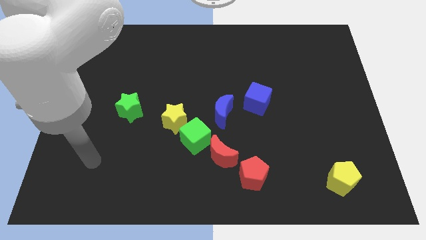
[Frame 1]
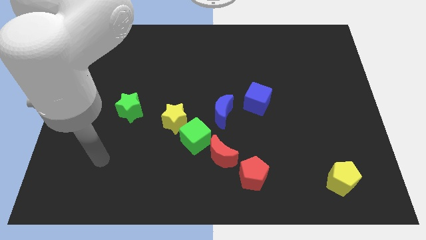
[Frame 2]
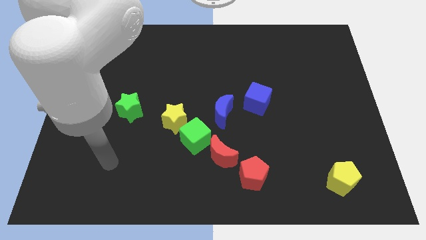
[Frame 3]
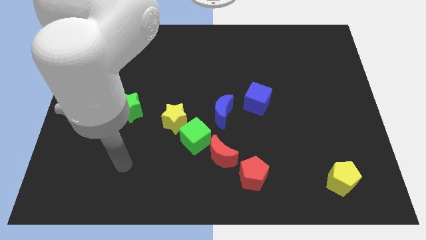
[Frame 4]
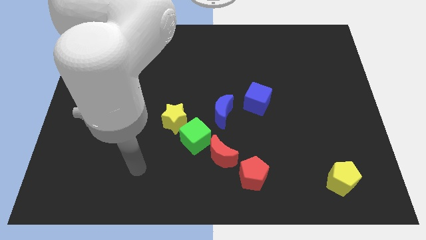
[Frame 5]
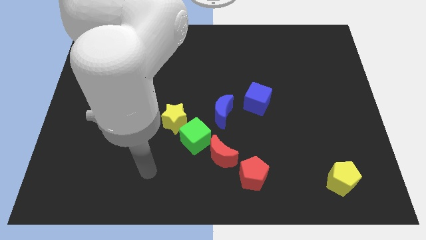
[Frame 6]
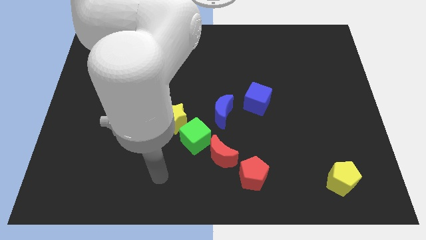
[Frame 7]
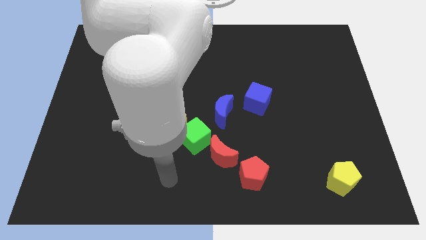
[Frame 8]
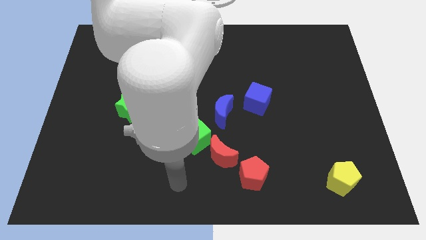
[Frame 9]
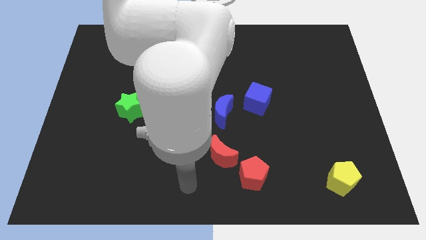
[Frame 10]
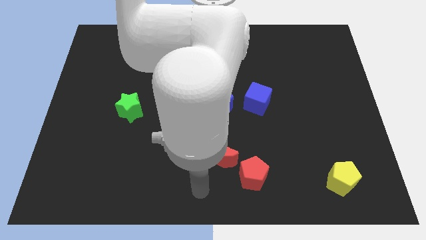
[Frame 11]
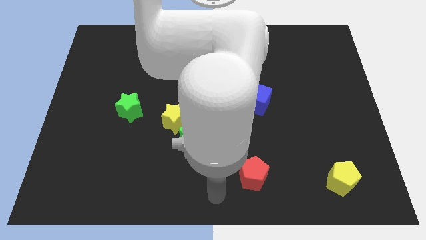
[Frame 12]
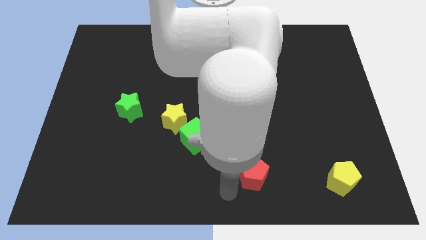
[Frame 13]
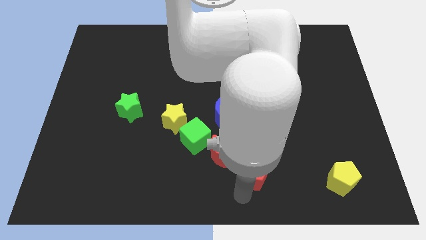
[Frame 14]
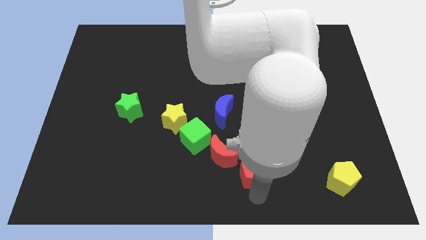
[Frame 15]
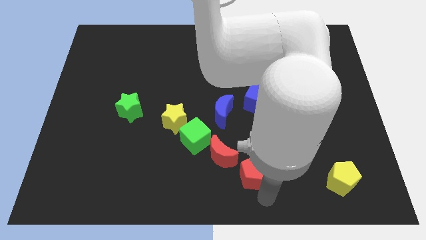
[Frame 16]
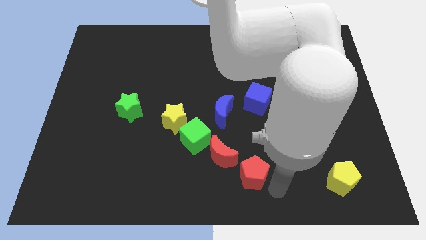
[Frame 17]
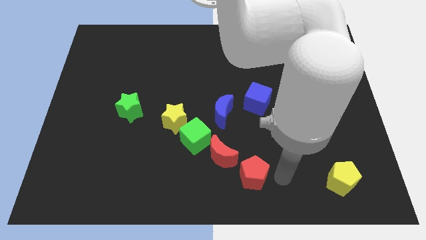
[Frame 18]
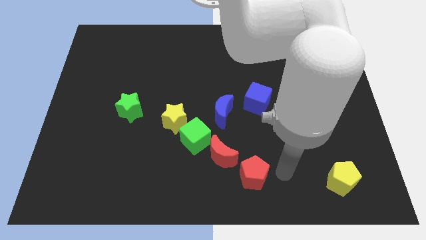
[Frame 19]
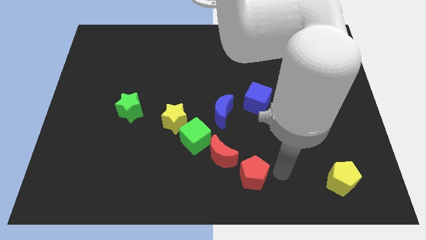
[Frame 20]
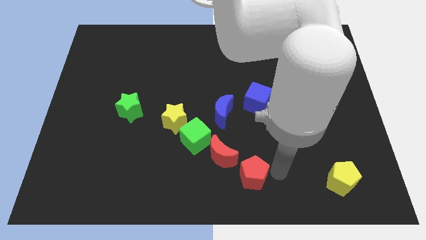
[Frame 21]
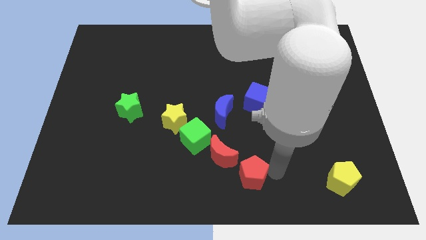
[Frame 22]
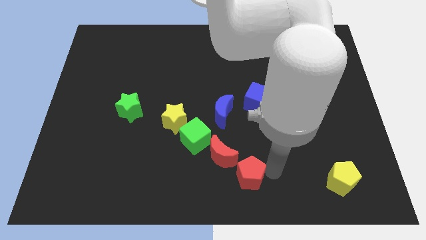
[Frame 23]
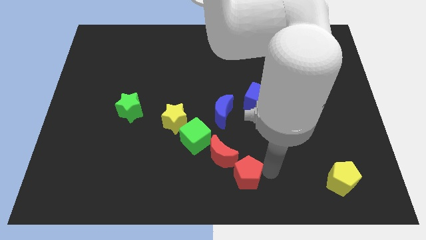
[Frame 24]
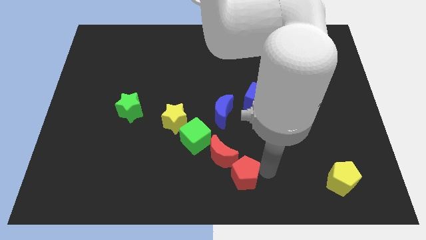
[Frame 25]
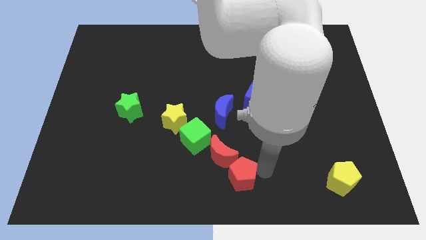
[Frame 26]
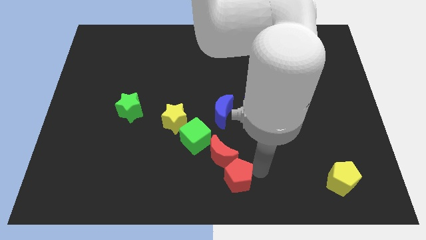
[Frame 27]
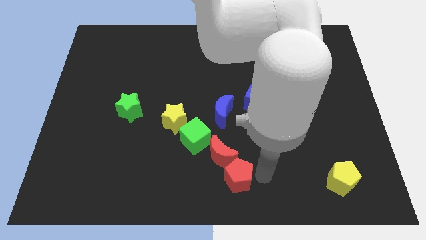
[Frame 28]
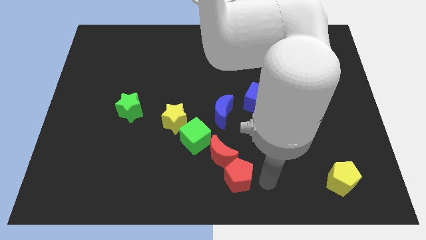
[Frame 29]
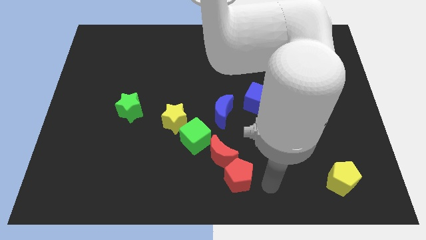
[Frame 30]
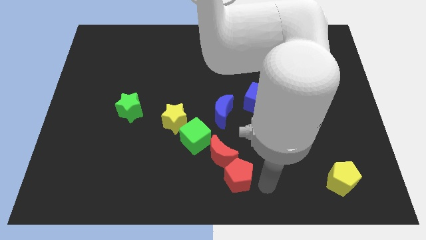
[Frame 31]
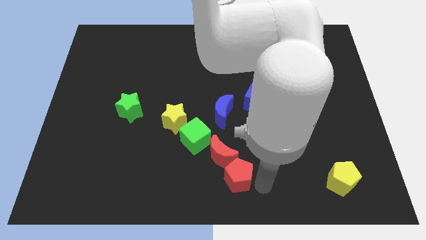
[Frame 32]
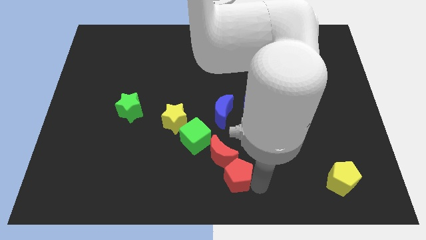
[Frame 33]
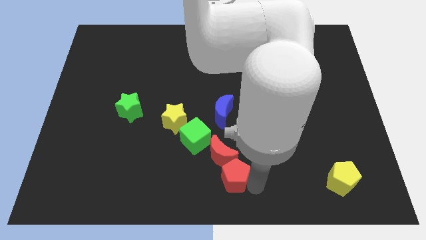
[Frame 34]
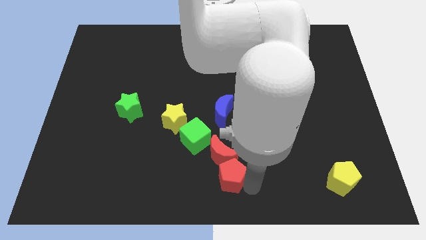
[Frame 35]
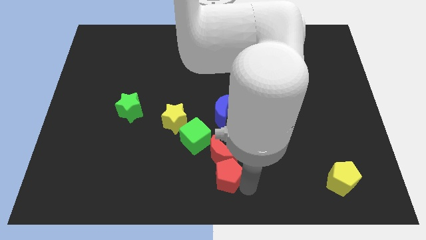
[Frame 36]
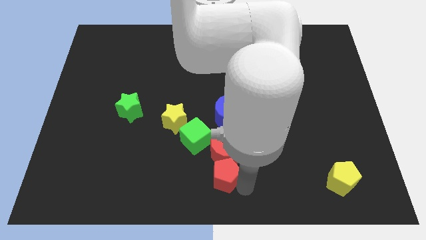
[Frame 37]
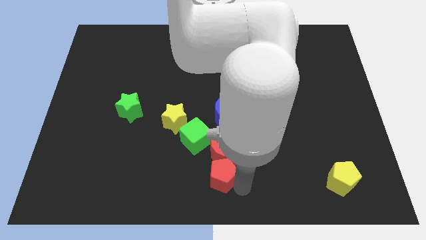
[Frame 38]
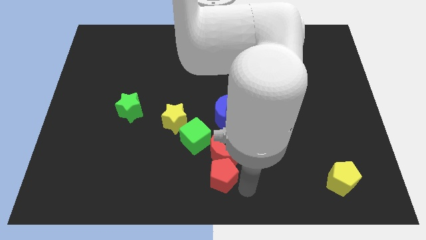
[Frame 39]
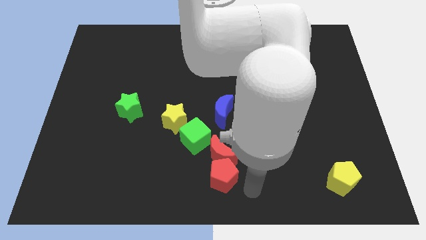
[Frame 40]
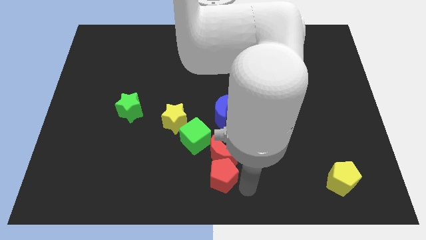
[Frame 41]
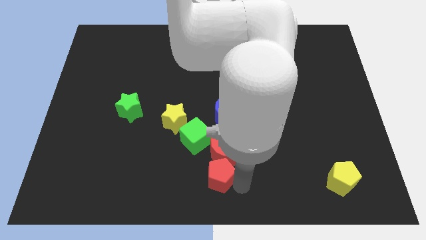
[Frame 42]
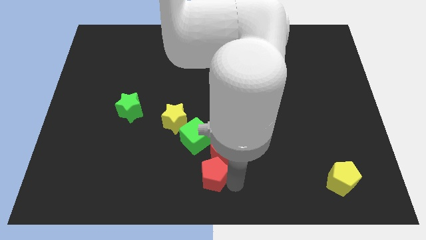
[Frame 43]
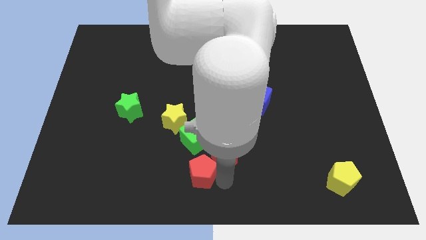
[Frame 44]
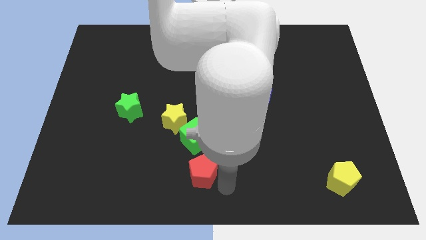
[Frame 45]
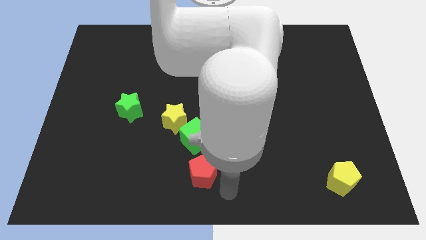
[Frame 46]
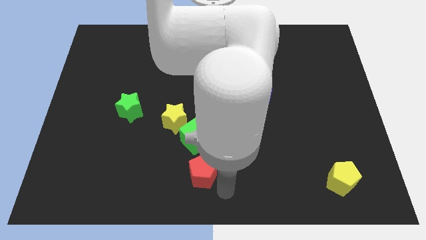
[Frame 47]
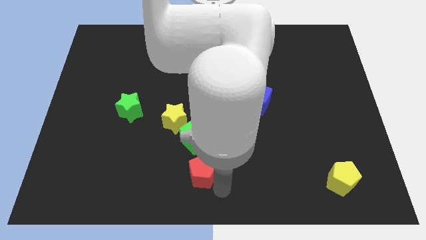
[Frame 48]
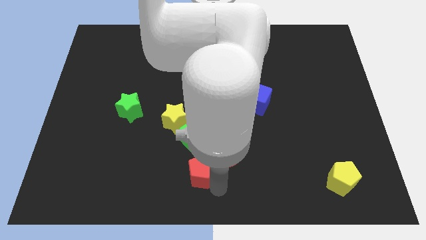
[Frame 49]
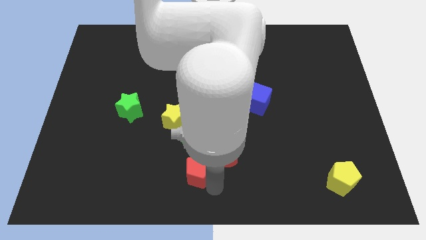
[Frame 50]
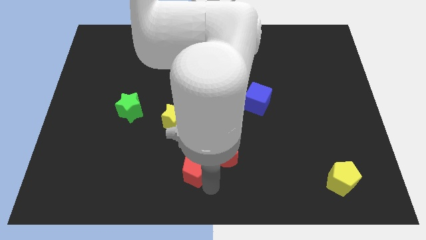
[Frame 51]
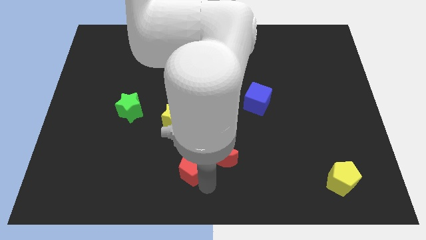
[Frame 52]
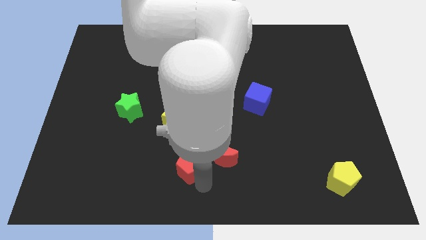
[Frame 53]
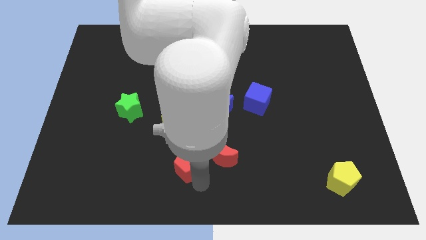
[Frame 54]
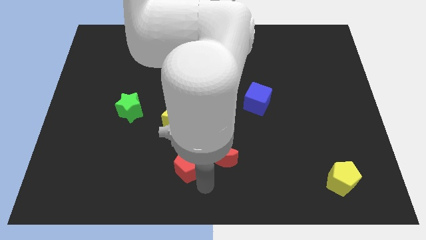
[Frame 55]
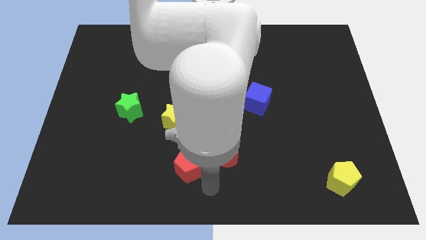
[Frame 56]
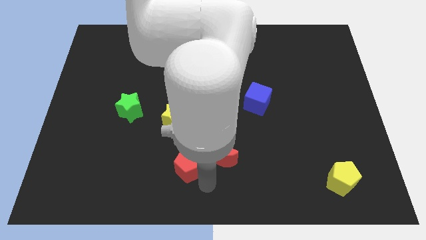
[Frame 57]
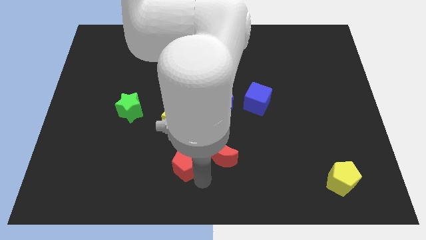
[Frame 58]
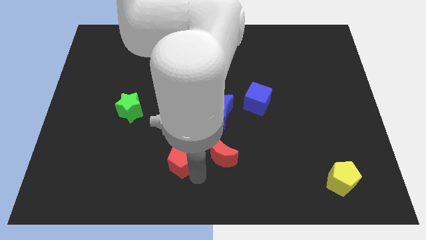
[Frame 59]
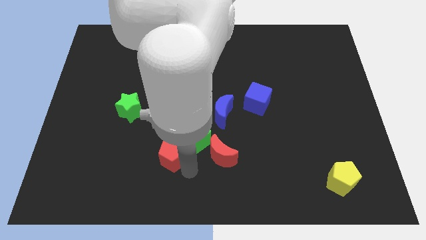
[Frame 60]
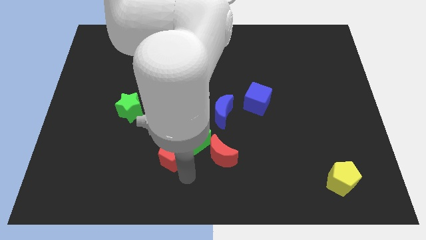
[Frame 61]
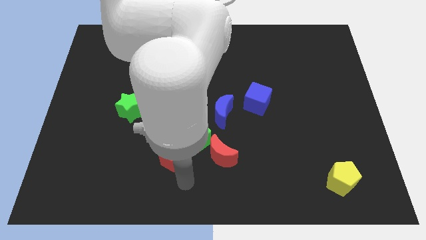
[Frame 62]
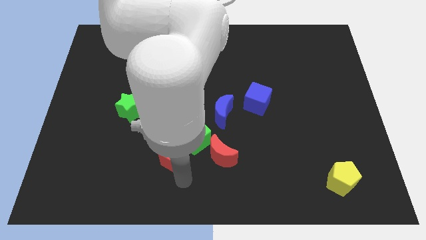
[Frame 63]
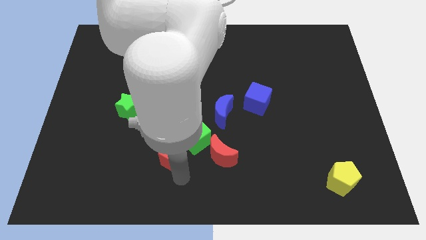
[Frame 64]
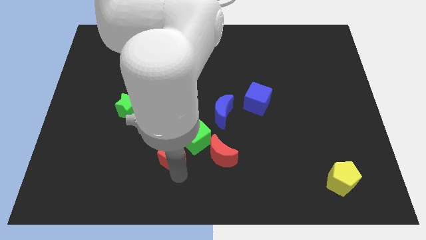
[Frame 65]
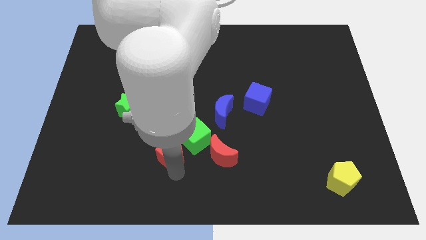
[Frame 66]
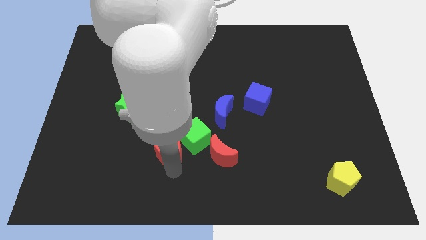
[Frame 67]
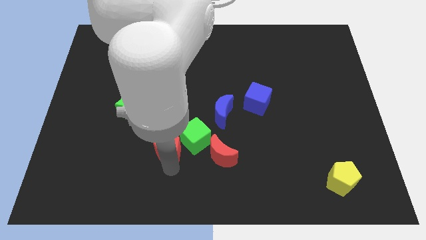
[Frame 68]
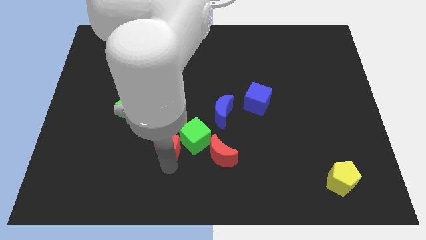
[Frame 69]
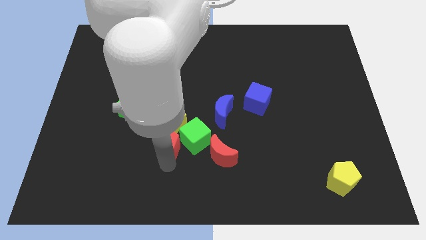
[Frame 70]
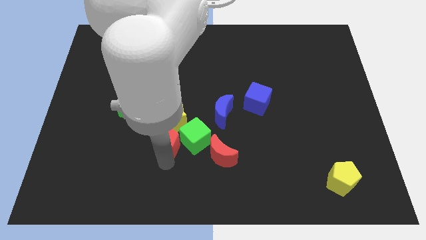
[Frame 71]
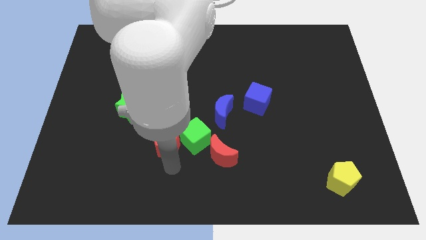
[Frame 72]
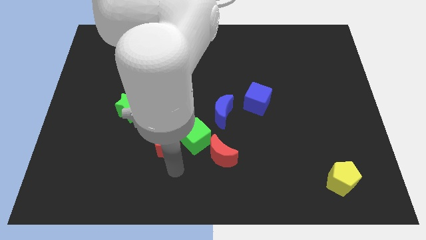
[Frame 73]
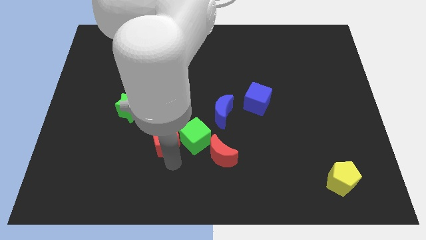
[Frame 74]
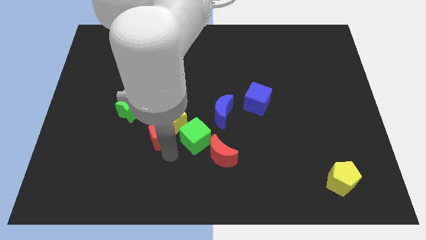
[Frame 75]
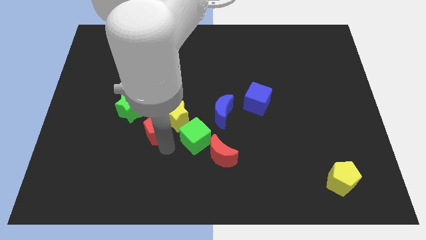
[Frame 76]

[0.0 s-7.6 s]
move the red pentagon up and to the left diagonally

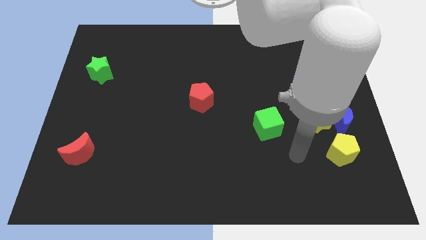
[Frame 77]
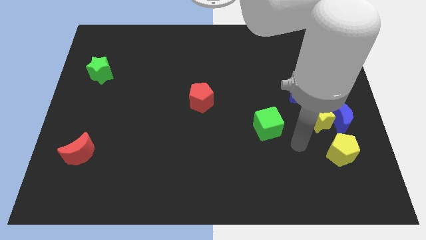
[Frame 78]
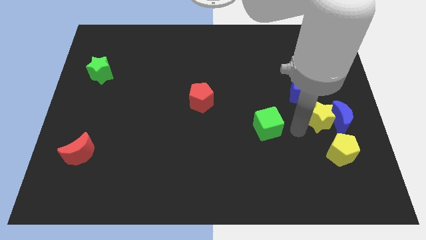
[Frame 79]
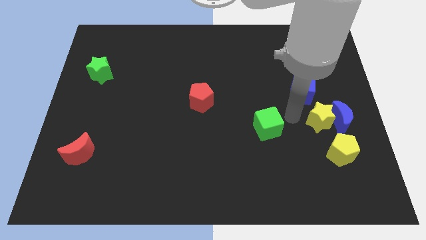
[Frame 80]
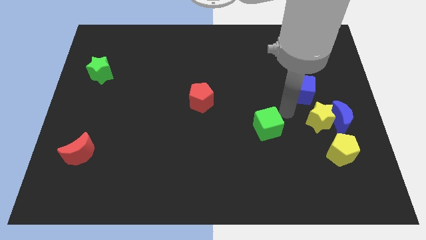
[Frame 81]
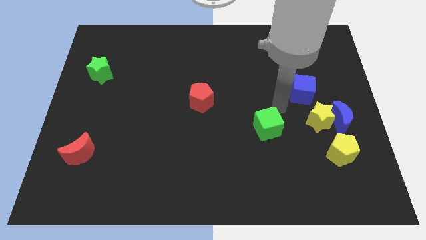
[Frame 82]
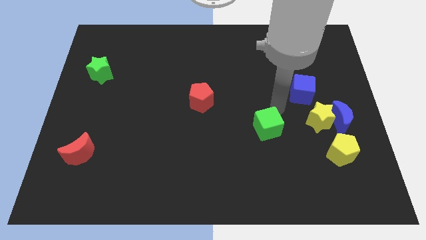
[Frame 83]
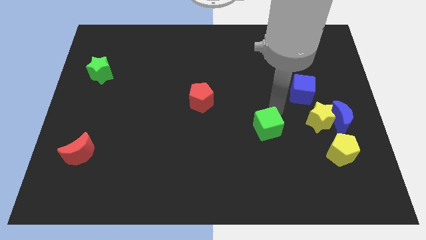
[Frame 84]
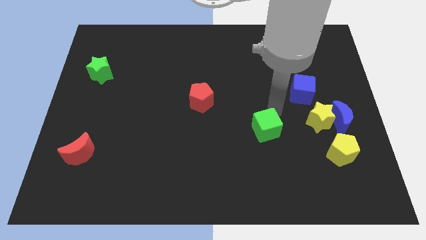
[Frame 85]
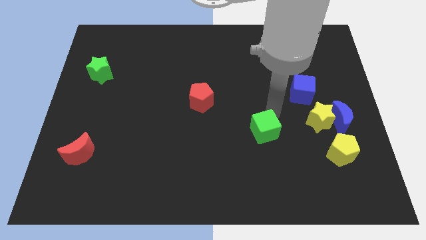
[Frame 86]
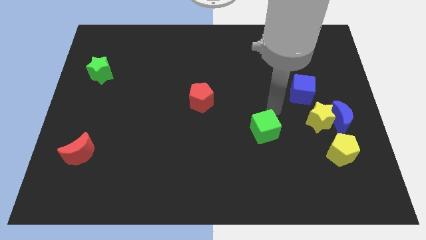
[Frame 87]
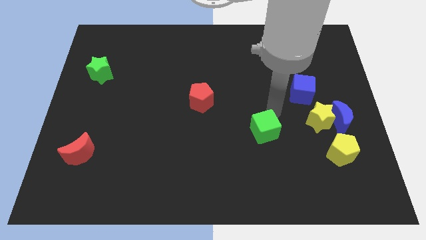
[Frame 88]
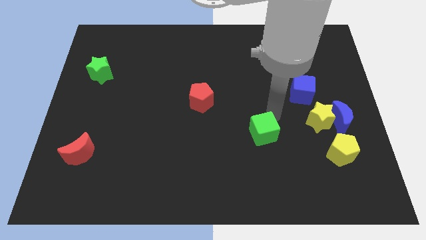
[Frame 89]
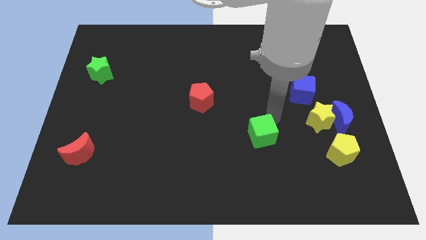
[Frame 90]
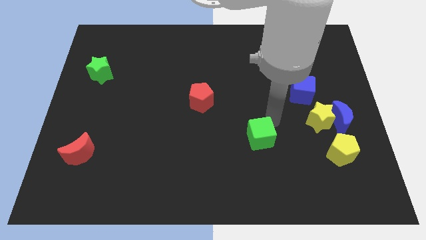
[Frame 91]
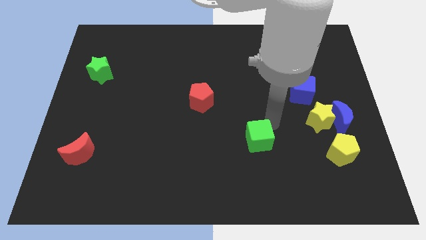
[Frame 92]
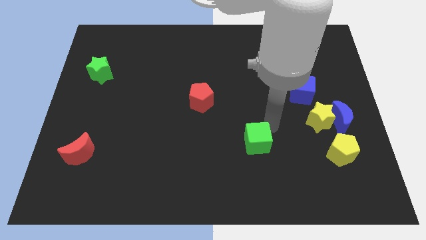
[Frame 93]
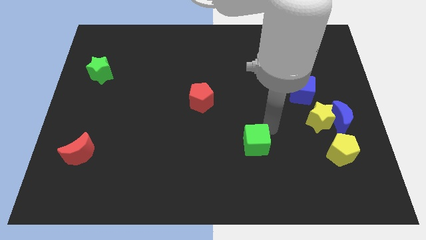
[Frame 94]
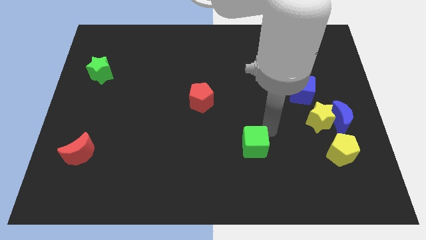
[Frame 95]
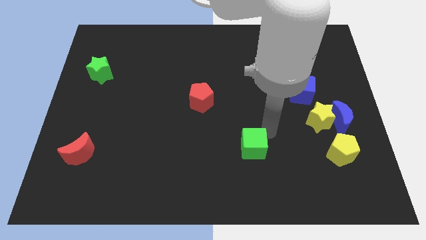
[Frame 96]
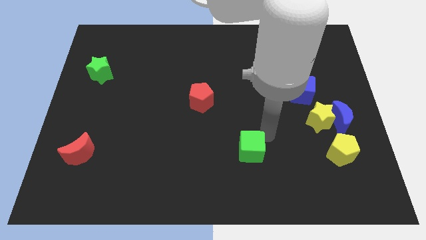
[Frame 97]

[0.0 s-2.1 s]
slightly push the green cube down and then left
